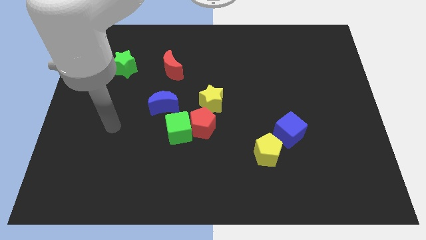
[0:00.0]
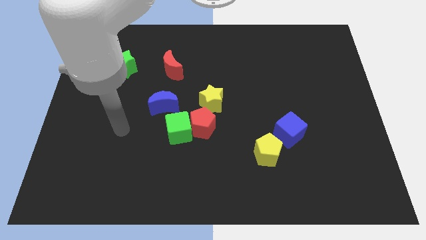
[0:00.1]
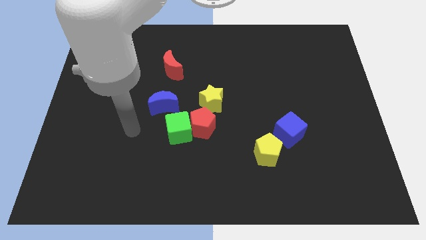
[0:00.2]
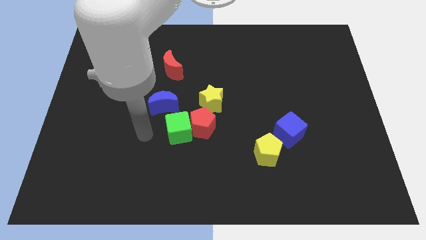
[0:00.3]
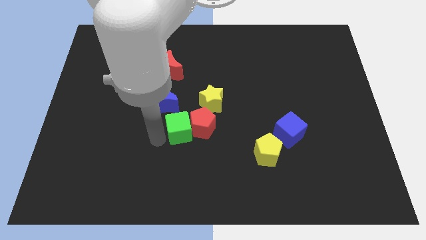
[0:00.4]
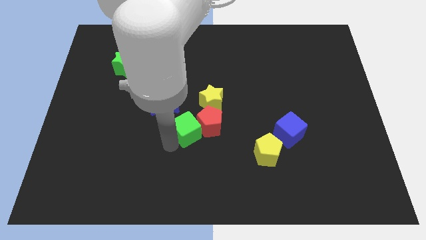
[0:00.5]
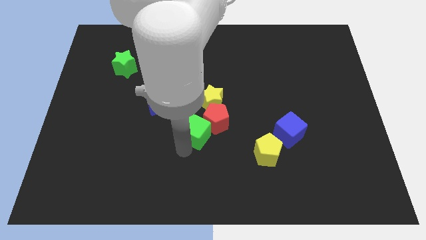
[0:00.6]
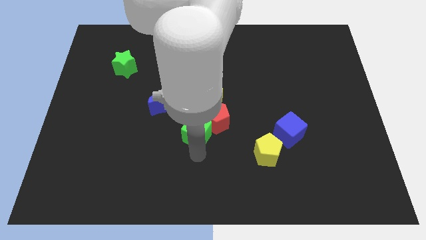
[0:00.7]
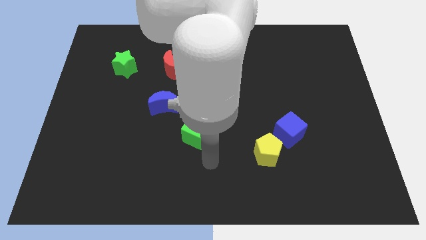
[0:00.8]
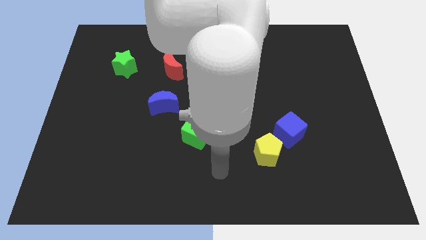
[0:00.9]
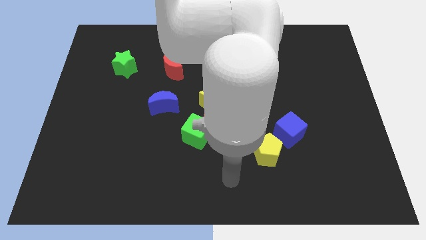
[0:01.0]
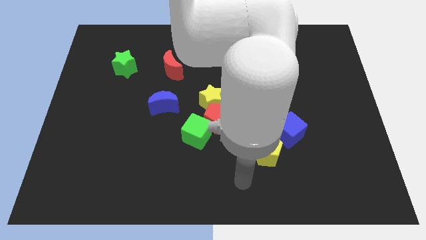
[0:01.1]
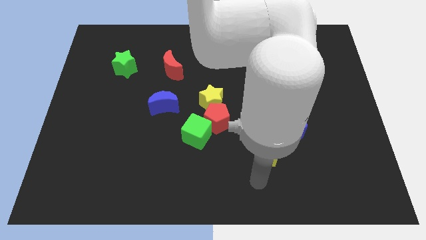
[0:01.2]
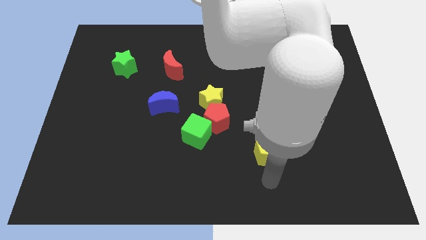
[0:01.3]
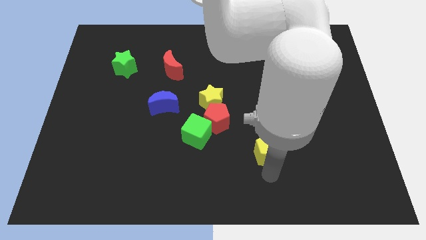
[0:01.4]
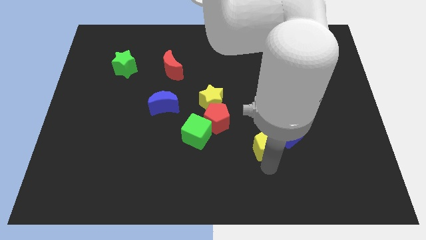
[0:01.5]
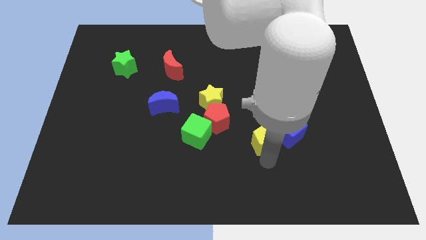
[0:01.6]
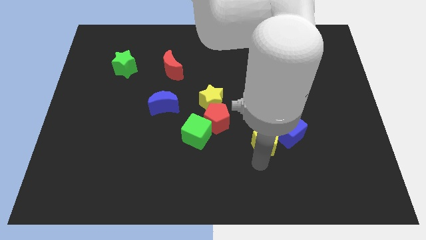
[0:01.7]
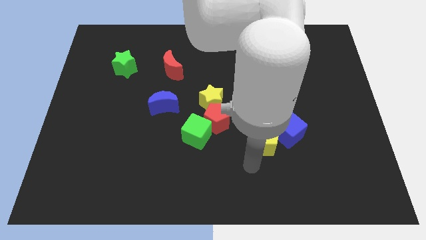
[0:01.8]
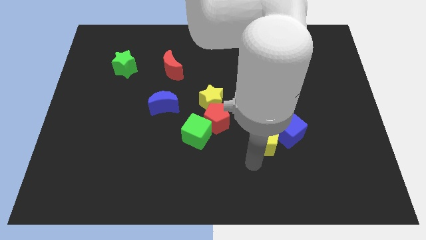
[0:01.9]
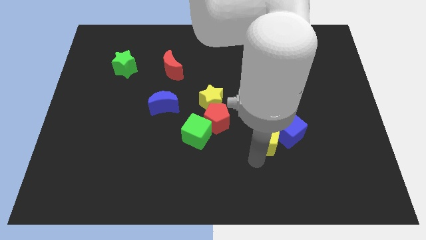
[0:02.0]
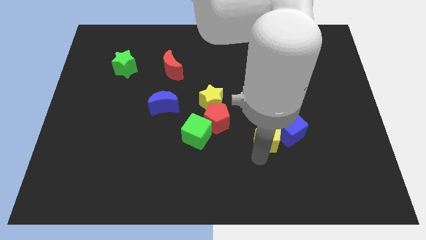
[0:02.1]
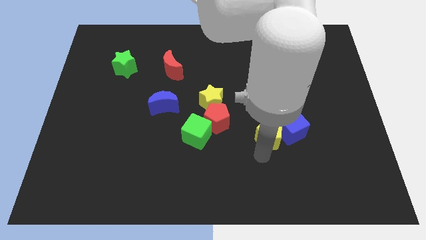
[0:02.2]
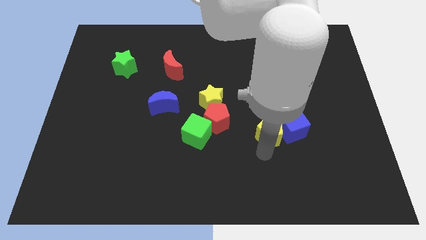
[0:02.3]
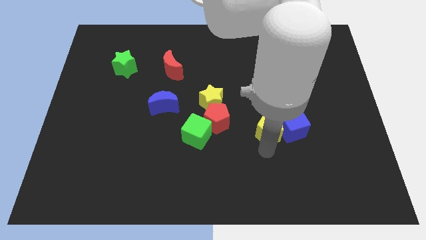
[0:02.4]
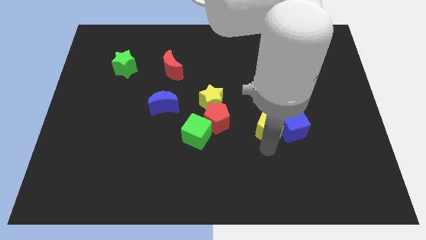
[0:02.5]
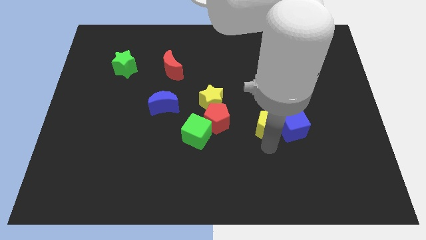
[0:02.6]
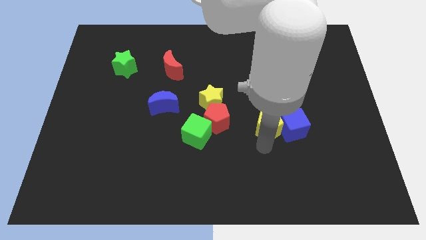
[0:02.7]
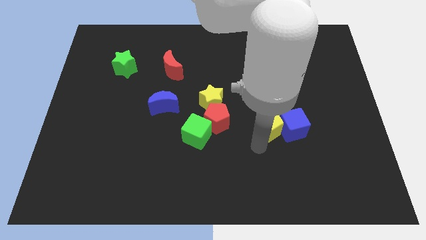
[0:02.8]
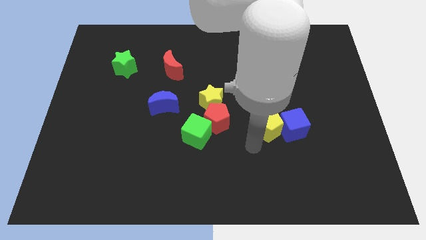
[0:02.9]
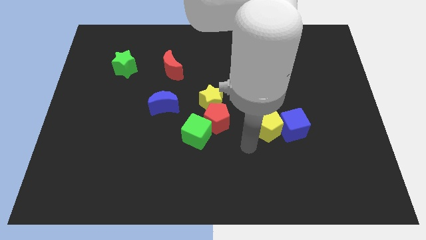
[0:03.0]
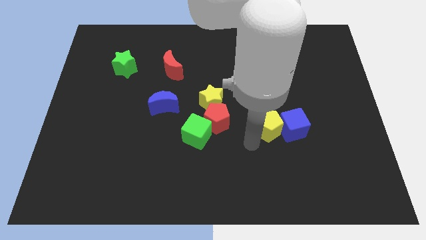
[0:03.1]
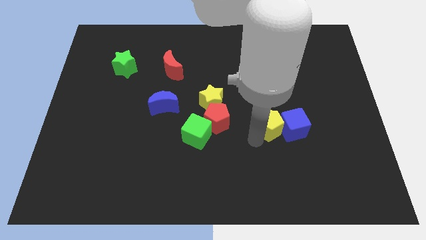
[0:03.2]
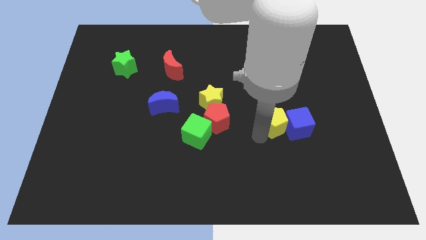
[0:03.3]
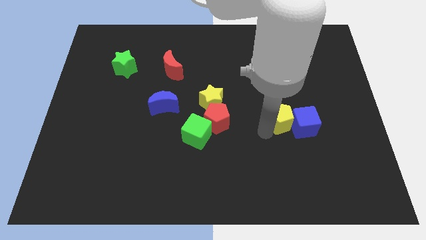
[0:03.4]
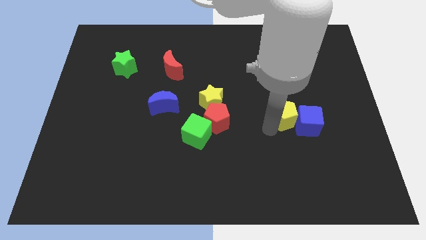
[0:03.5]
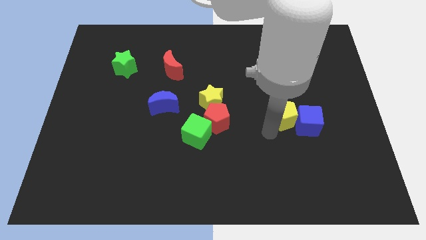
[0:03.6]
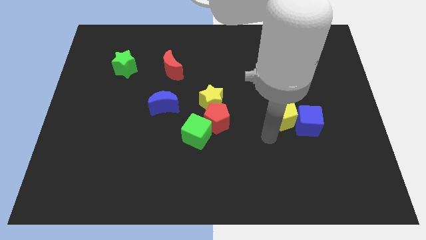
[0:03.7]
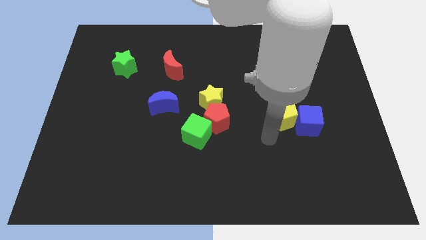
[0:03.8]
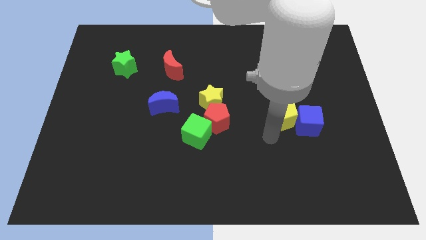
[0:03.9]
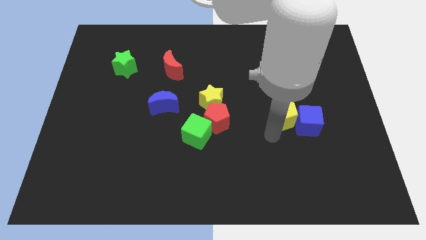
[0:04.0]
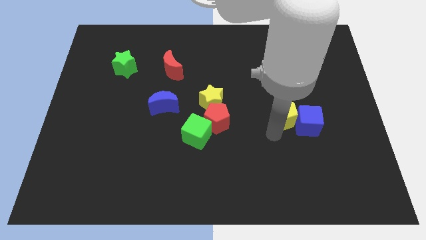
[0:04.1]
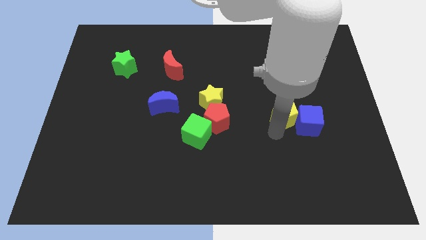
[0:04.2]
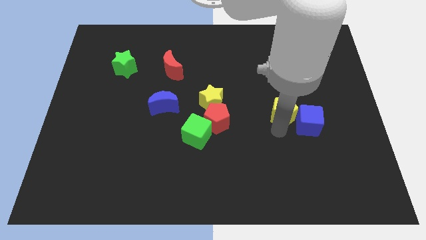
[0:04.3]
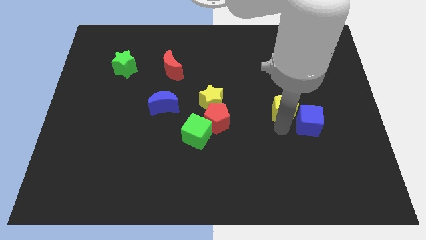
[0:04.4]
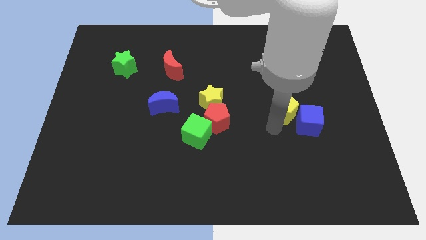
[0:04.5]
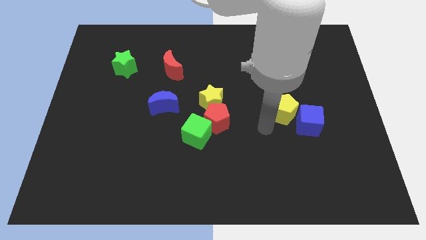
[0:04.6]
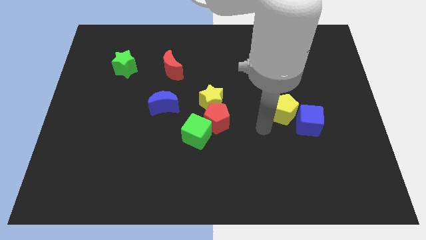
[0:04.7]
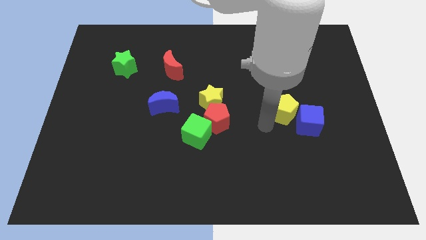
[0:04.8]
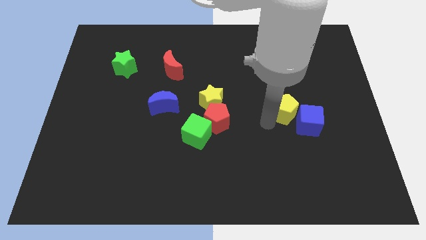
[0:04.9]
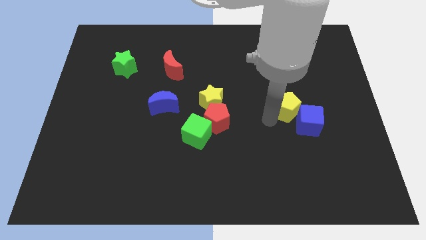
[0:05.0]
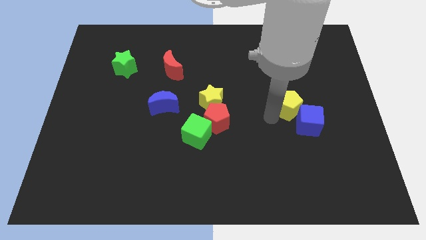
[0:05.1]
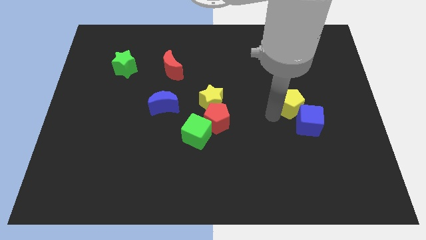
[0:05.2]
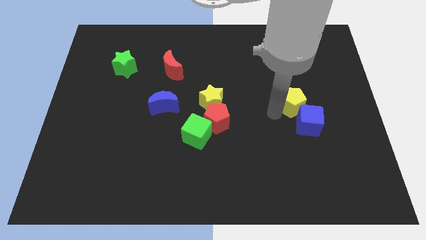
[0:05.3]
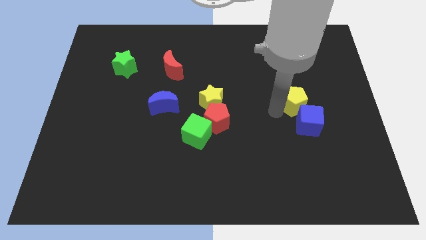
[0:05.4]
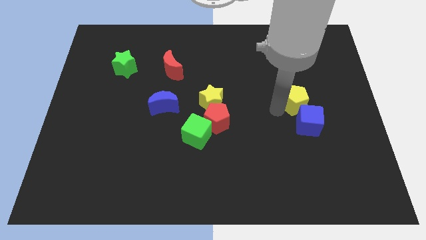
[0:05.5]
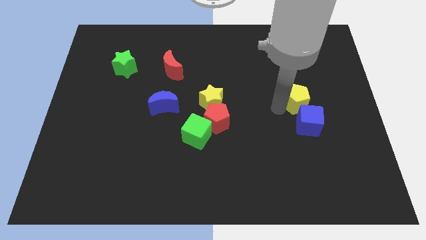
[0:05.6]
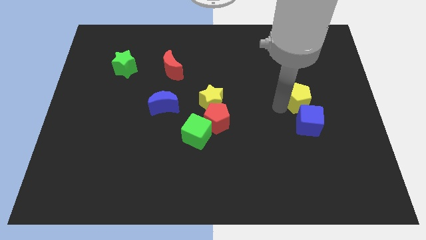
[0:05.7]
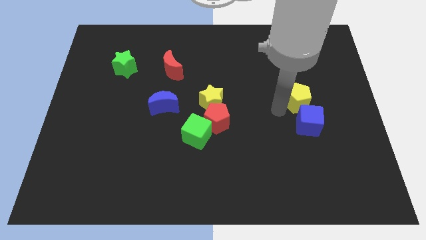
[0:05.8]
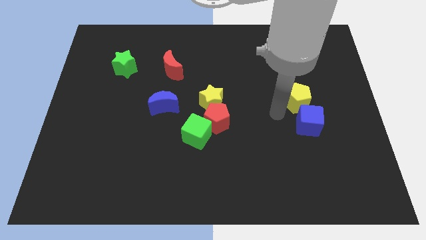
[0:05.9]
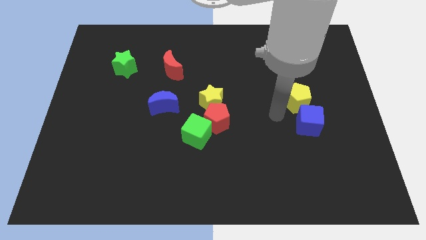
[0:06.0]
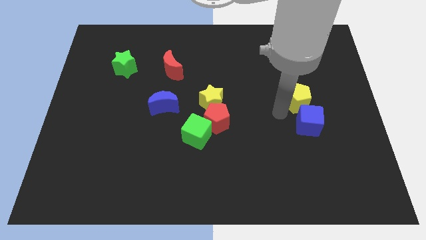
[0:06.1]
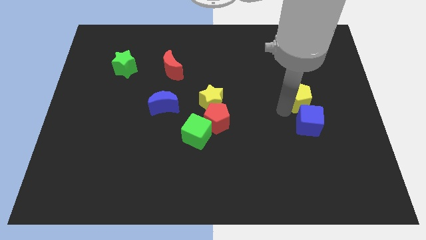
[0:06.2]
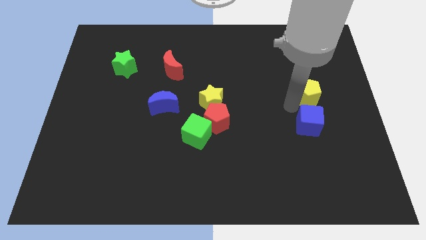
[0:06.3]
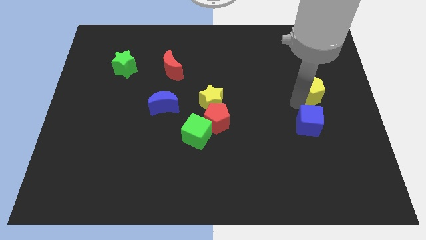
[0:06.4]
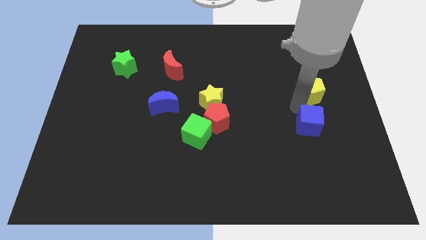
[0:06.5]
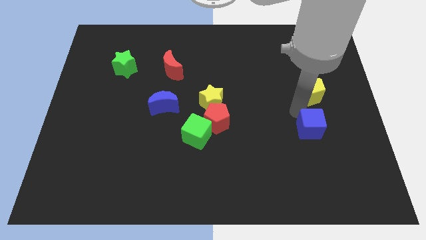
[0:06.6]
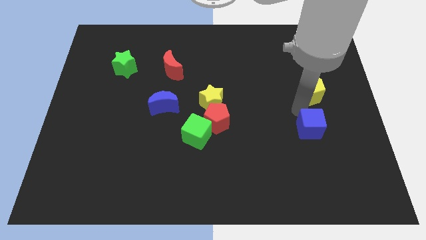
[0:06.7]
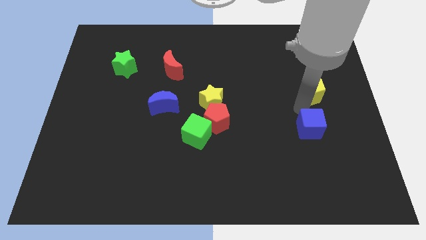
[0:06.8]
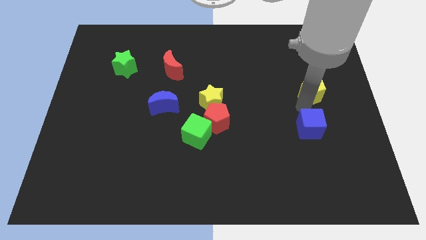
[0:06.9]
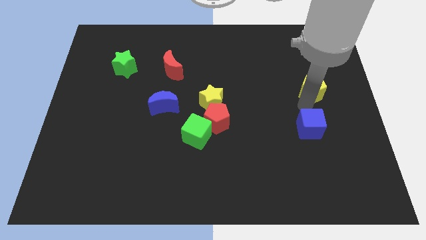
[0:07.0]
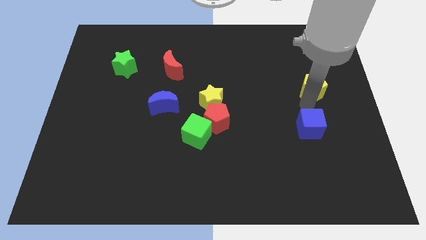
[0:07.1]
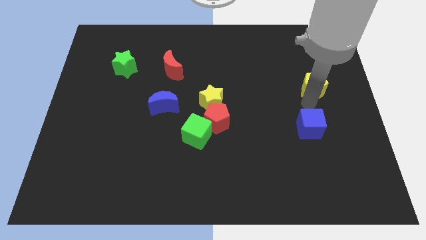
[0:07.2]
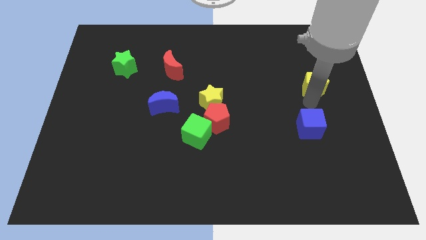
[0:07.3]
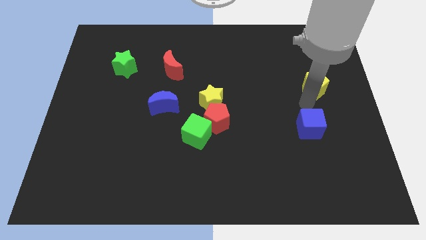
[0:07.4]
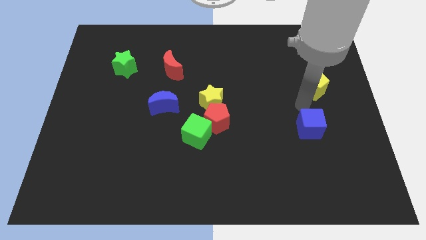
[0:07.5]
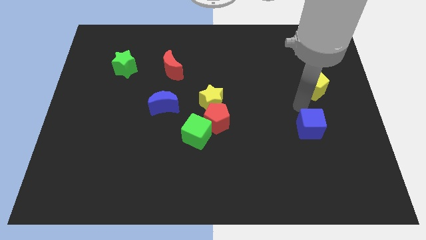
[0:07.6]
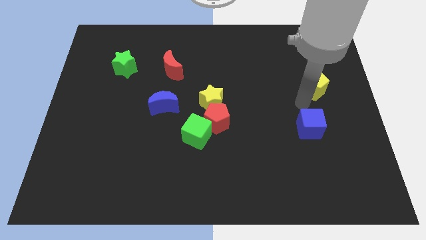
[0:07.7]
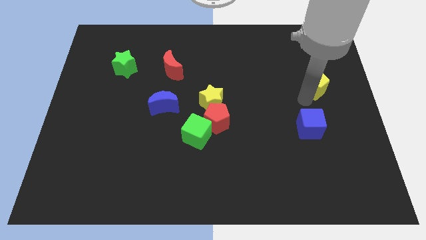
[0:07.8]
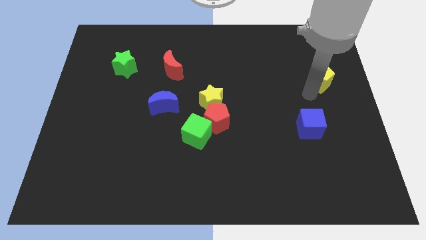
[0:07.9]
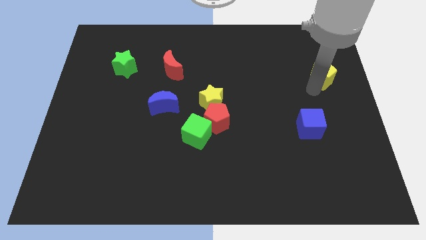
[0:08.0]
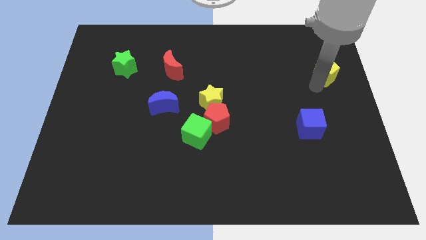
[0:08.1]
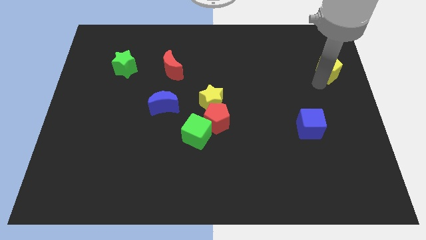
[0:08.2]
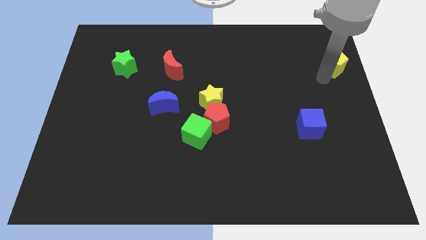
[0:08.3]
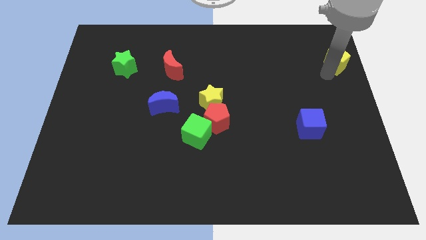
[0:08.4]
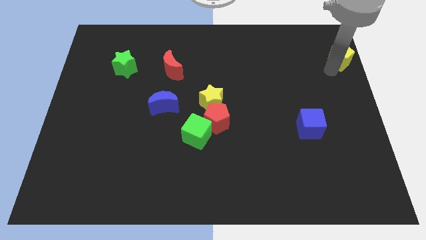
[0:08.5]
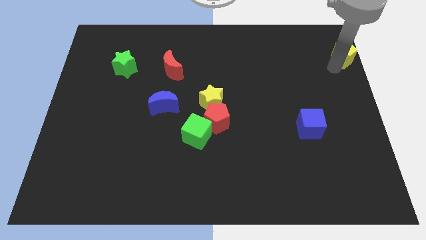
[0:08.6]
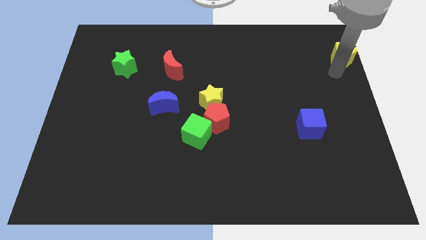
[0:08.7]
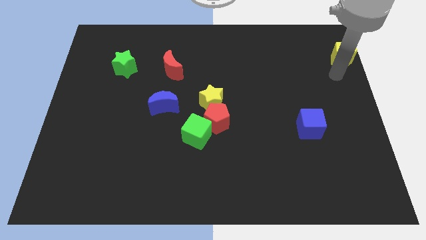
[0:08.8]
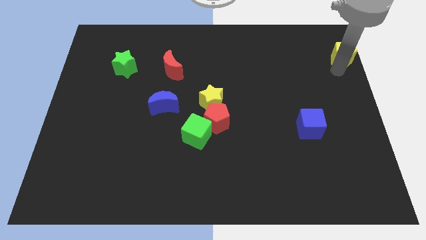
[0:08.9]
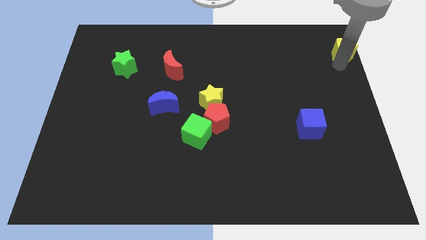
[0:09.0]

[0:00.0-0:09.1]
put the yellow pentagon to the top right
